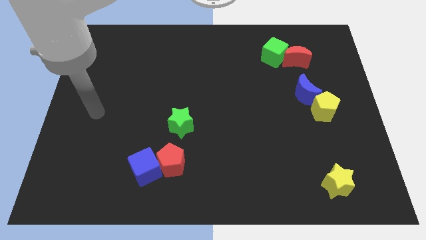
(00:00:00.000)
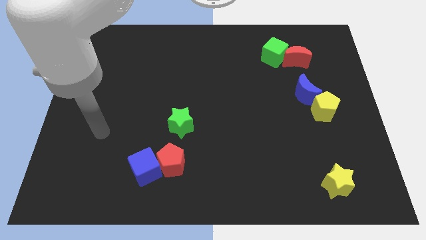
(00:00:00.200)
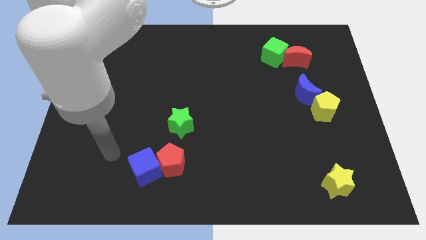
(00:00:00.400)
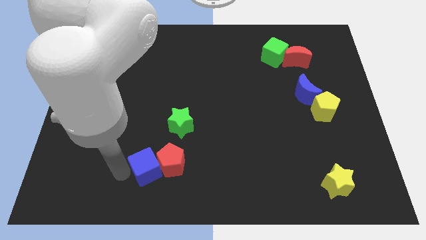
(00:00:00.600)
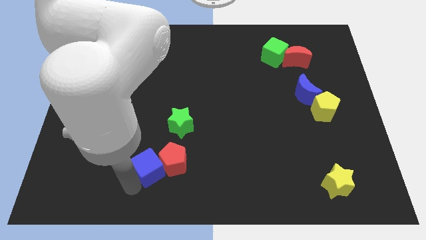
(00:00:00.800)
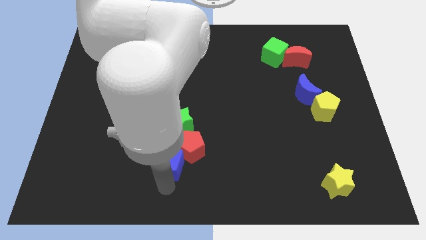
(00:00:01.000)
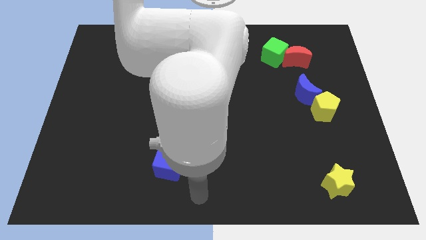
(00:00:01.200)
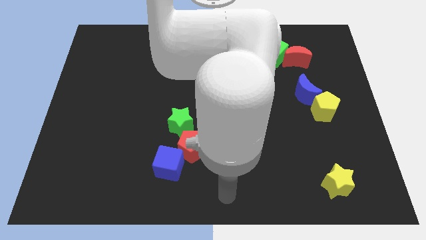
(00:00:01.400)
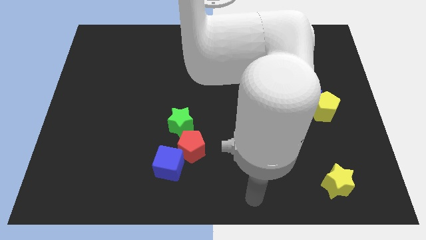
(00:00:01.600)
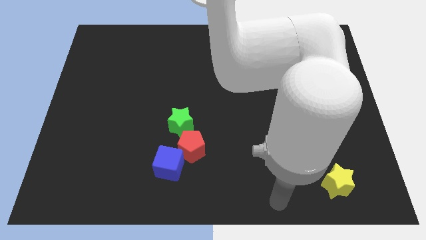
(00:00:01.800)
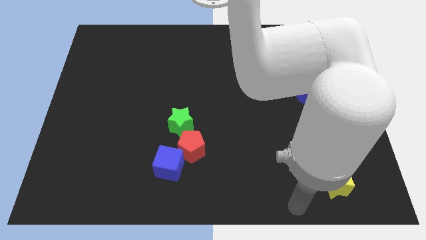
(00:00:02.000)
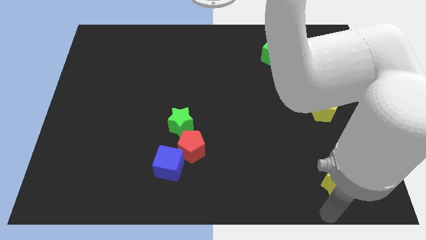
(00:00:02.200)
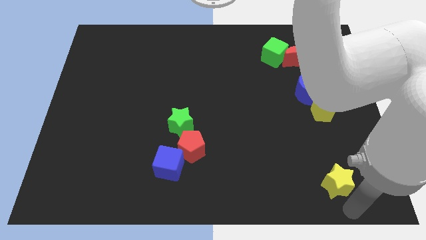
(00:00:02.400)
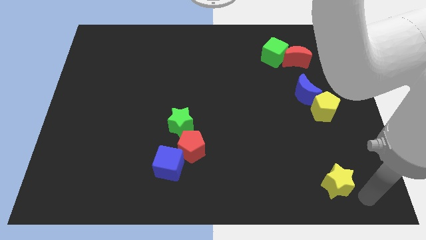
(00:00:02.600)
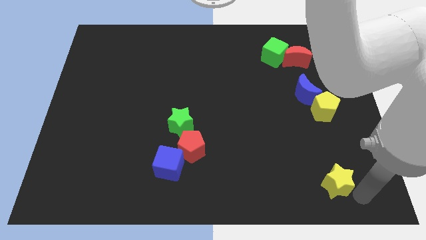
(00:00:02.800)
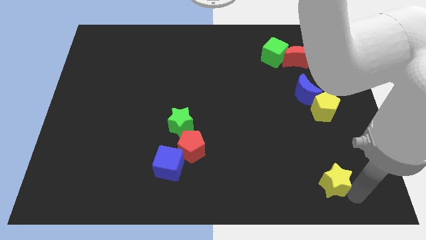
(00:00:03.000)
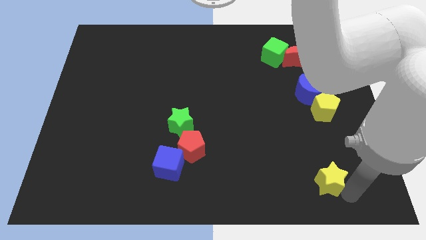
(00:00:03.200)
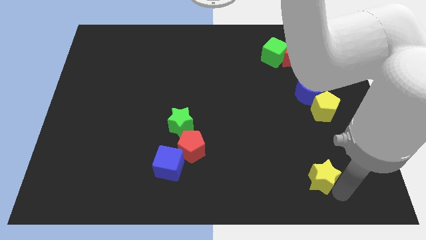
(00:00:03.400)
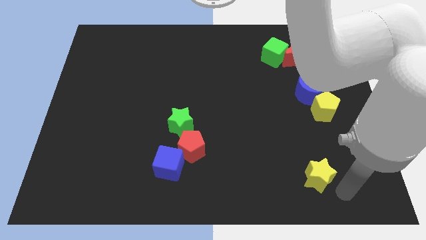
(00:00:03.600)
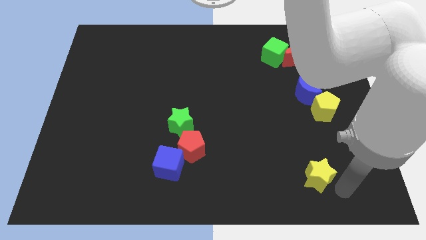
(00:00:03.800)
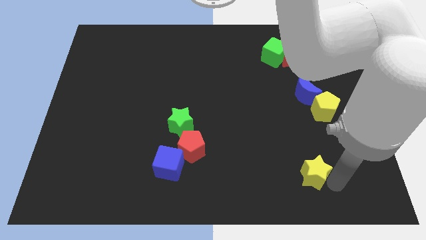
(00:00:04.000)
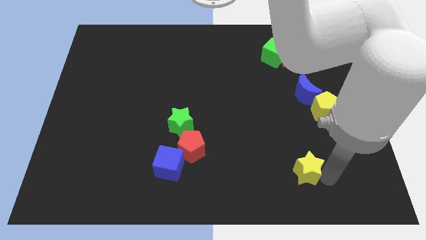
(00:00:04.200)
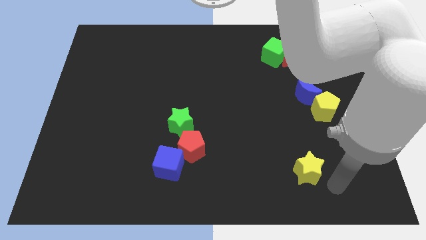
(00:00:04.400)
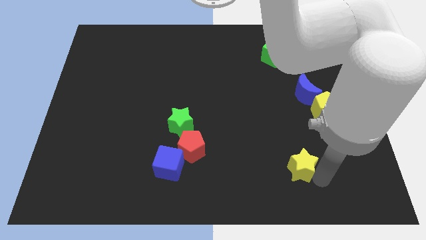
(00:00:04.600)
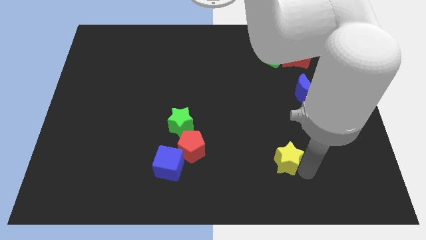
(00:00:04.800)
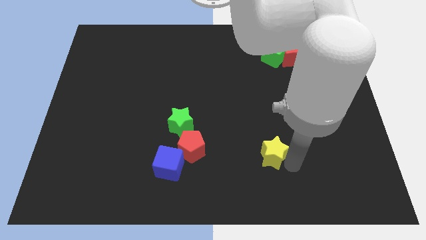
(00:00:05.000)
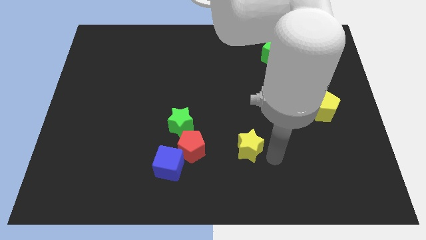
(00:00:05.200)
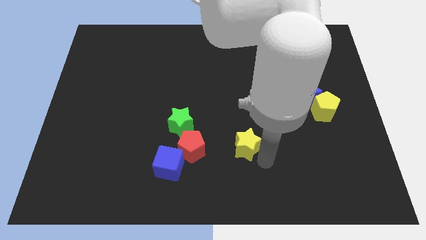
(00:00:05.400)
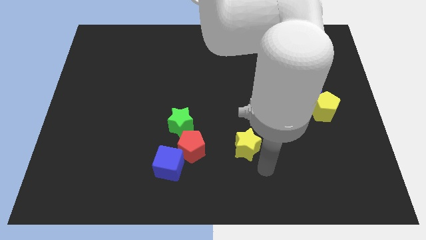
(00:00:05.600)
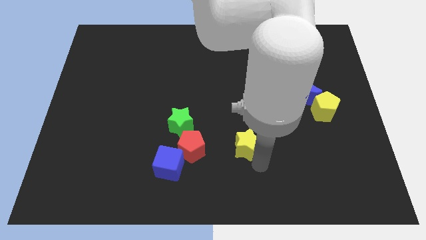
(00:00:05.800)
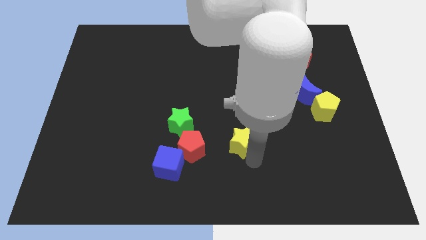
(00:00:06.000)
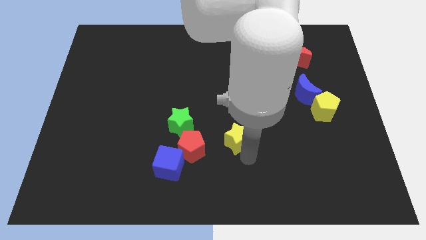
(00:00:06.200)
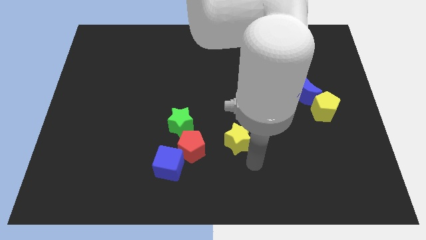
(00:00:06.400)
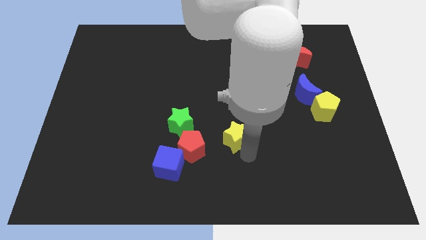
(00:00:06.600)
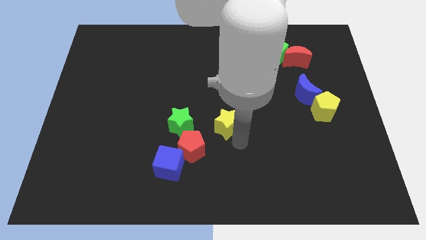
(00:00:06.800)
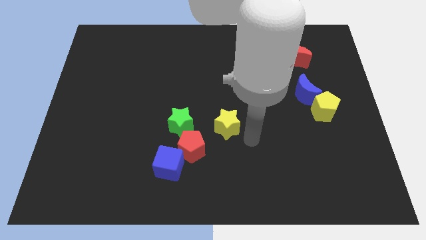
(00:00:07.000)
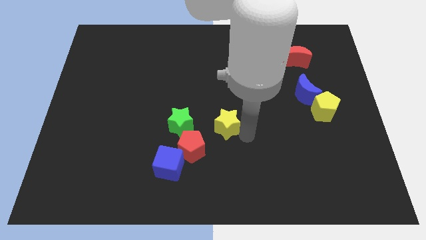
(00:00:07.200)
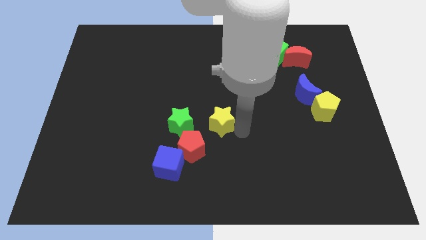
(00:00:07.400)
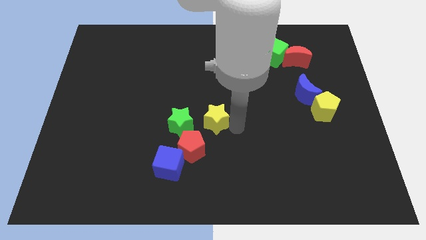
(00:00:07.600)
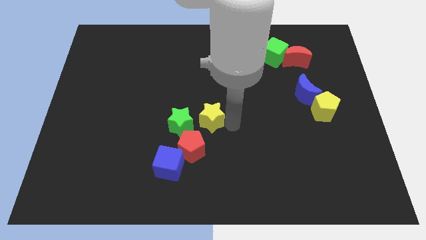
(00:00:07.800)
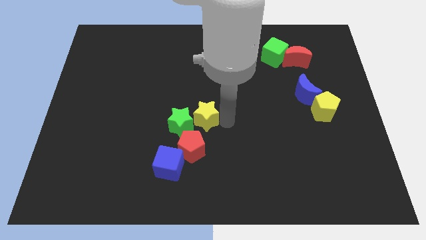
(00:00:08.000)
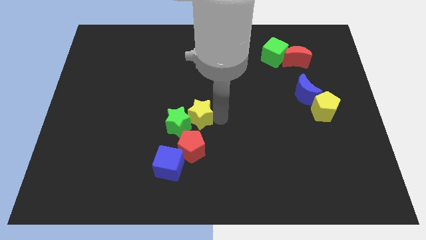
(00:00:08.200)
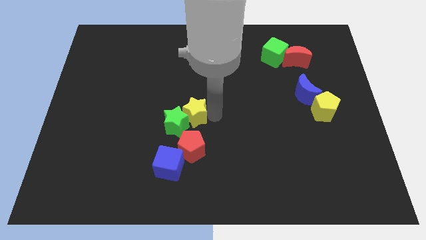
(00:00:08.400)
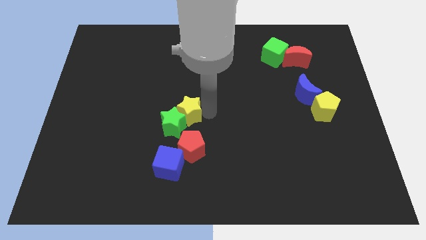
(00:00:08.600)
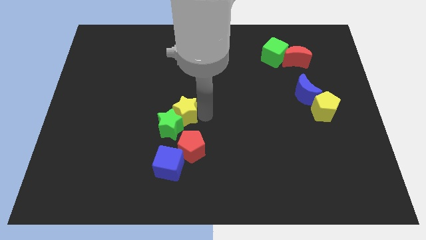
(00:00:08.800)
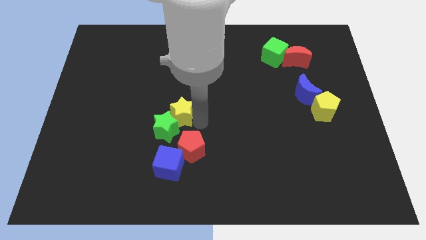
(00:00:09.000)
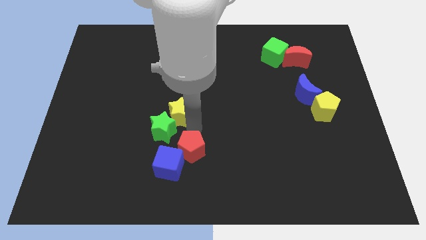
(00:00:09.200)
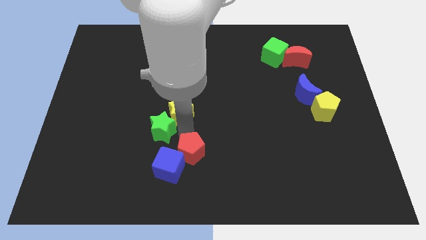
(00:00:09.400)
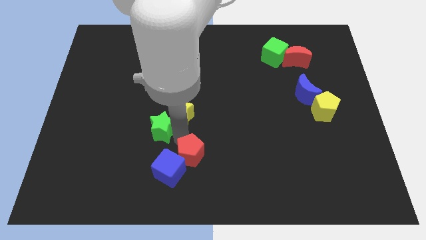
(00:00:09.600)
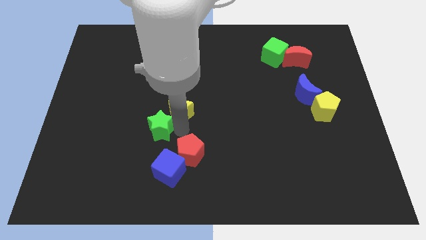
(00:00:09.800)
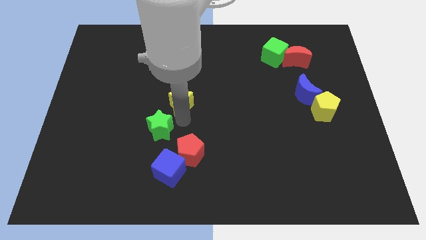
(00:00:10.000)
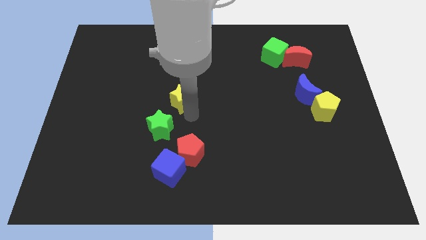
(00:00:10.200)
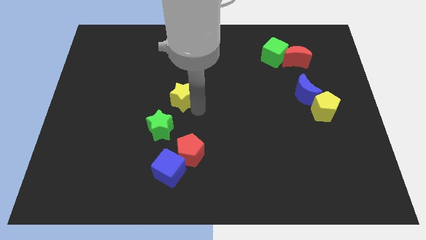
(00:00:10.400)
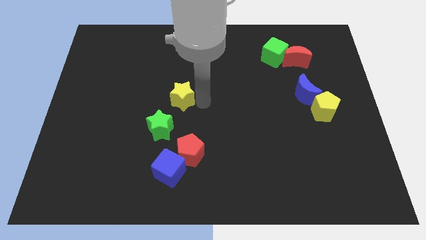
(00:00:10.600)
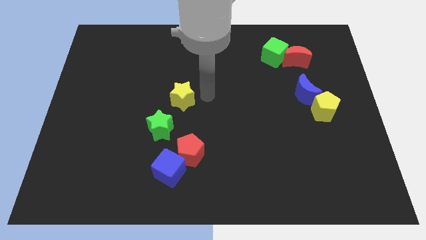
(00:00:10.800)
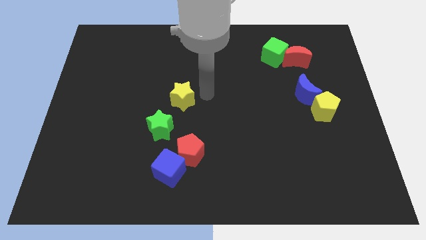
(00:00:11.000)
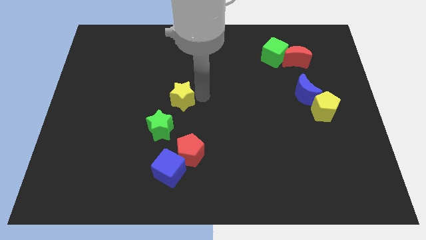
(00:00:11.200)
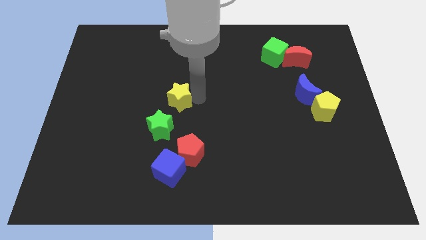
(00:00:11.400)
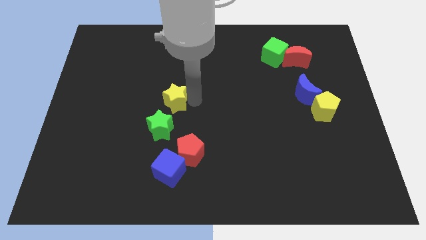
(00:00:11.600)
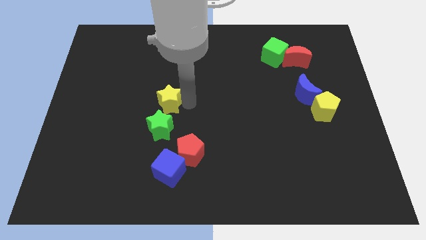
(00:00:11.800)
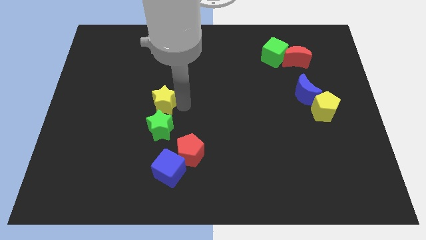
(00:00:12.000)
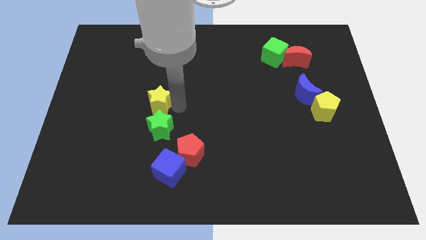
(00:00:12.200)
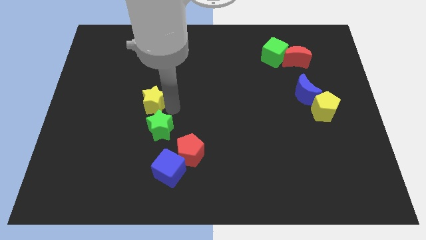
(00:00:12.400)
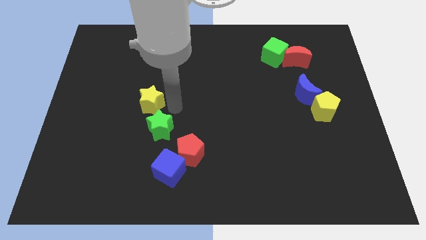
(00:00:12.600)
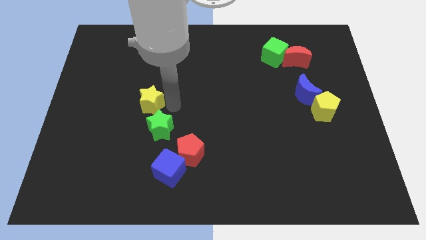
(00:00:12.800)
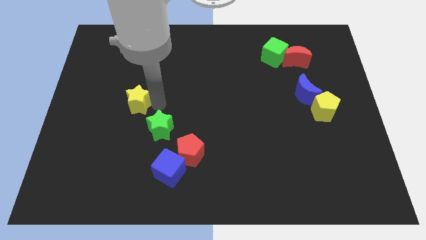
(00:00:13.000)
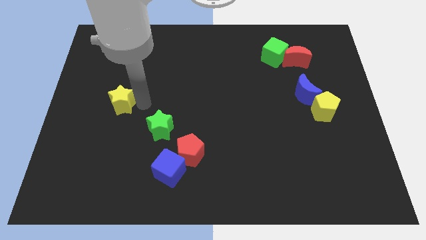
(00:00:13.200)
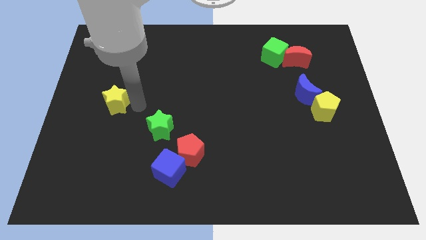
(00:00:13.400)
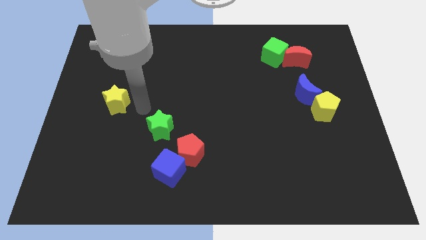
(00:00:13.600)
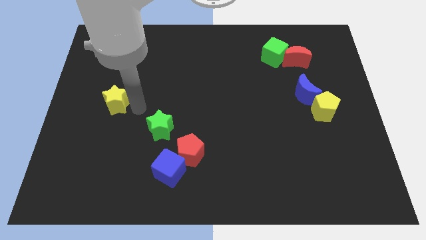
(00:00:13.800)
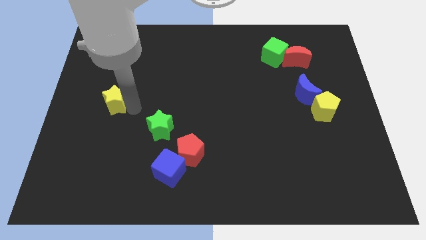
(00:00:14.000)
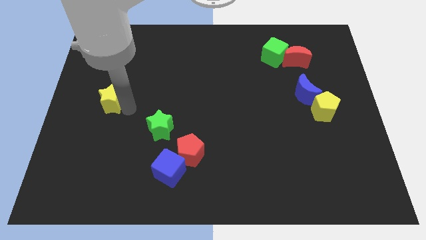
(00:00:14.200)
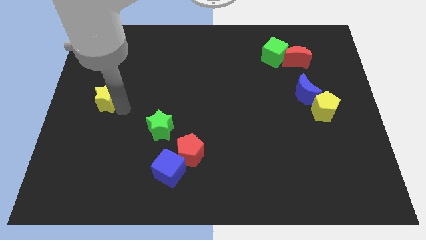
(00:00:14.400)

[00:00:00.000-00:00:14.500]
put the yellow star to the left side
